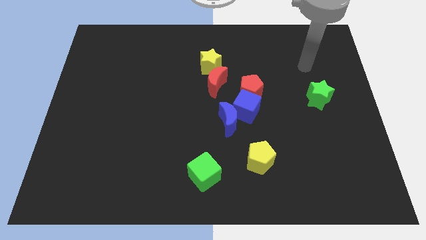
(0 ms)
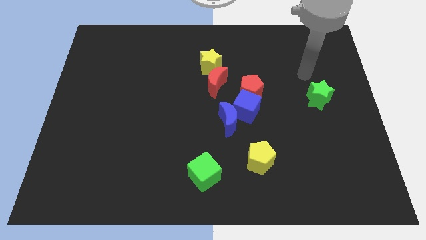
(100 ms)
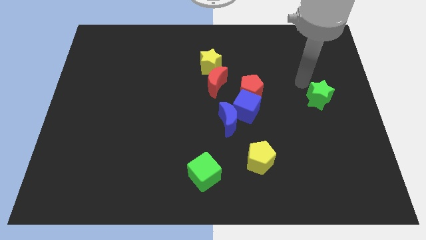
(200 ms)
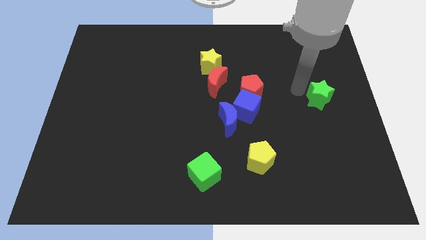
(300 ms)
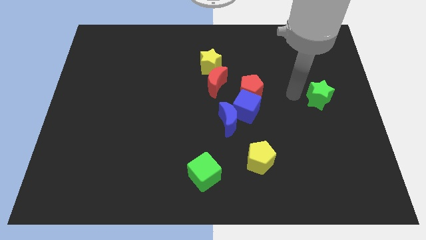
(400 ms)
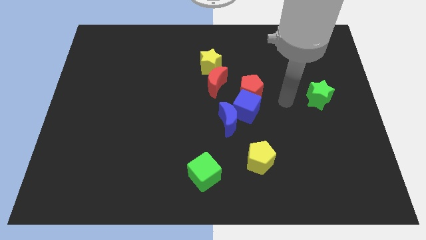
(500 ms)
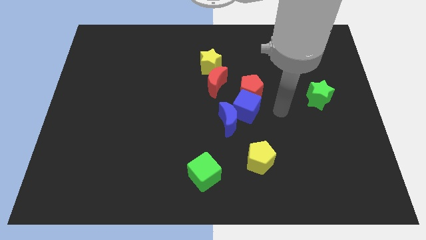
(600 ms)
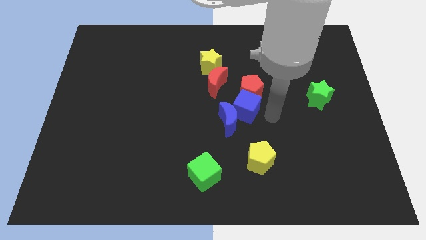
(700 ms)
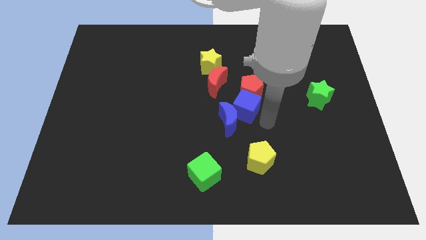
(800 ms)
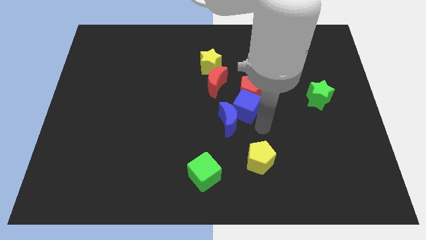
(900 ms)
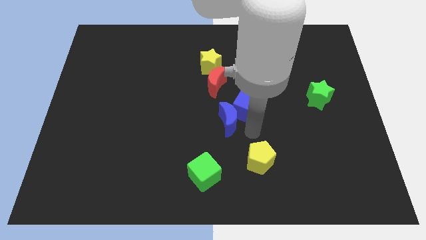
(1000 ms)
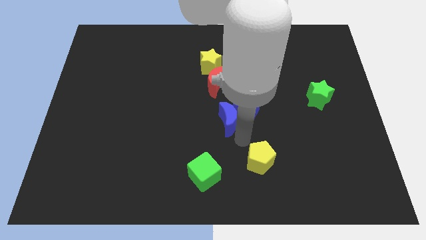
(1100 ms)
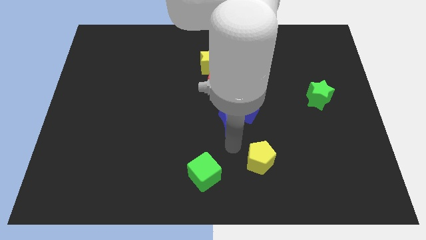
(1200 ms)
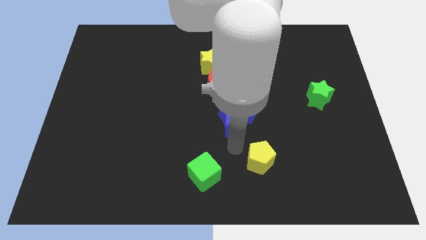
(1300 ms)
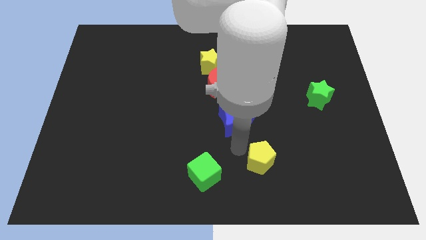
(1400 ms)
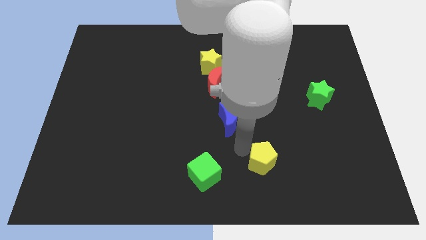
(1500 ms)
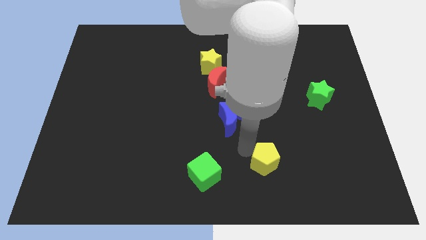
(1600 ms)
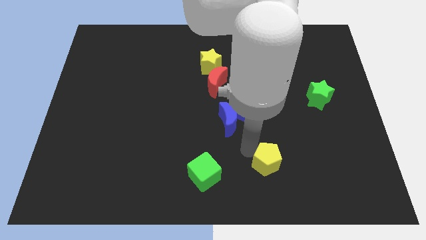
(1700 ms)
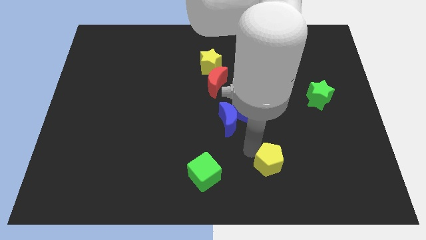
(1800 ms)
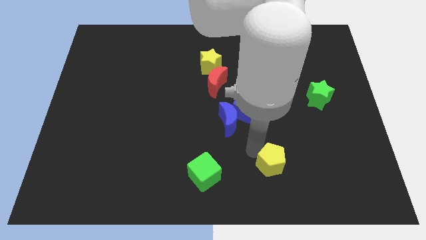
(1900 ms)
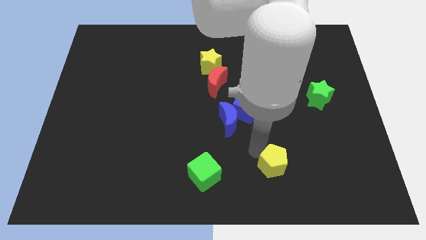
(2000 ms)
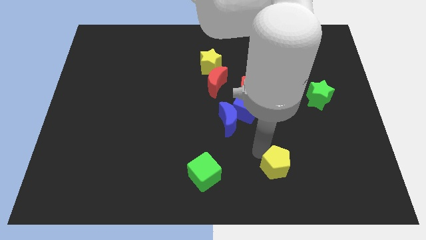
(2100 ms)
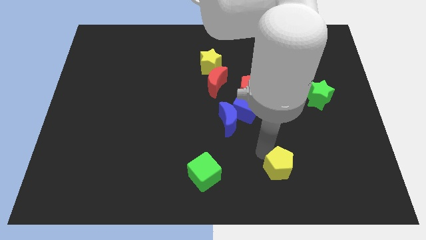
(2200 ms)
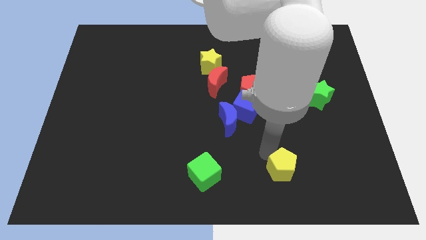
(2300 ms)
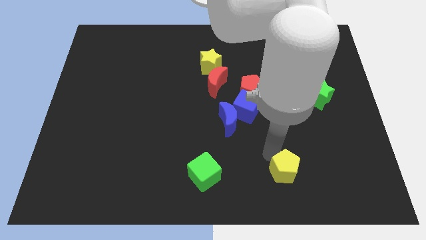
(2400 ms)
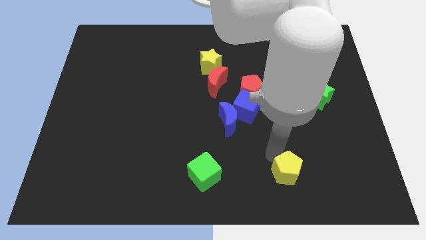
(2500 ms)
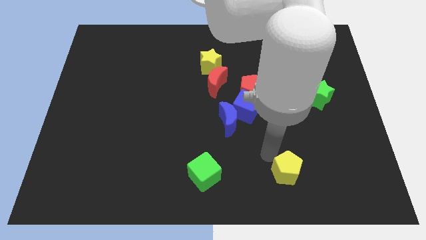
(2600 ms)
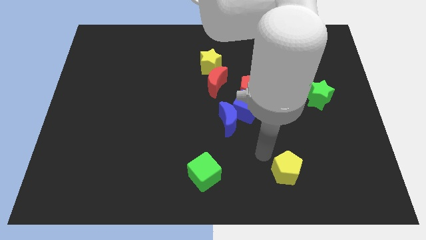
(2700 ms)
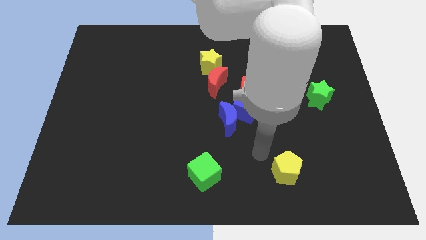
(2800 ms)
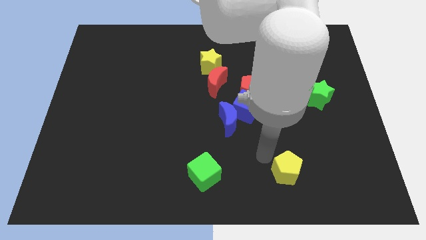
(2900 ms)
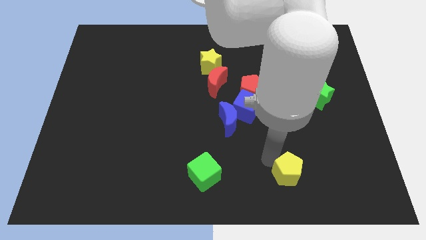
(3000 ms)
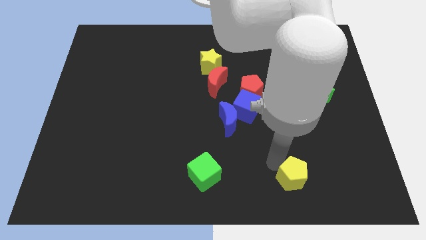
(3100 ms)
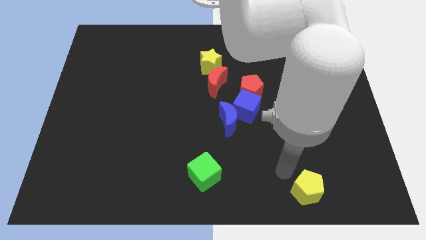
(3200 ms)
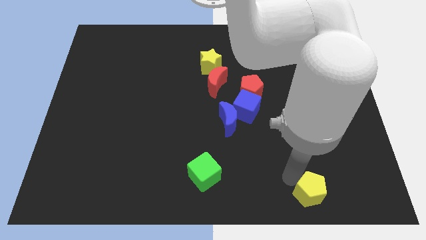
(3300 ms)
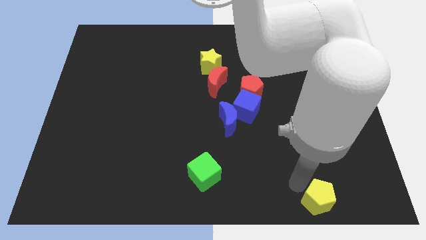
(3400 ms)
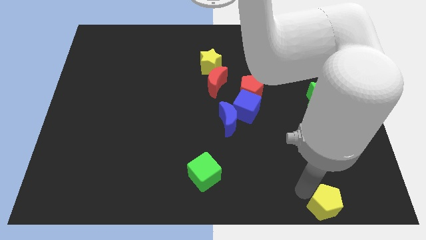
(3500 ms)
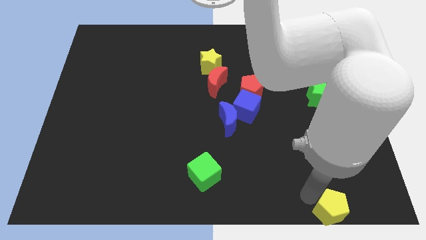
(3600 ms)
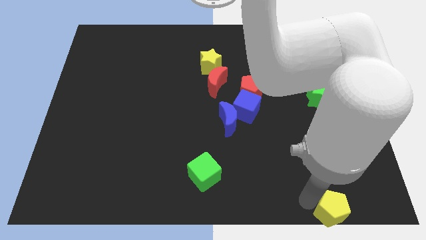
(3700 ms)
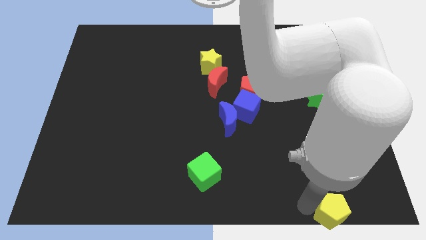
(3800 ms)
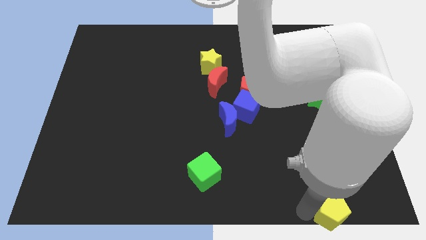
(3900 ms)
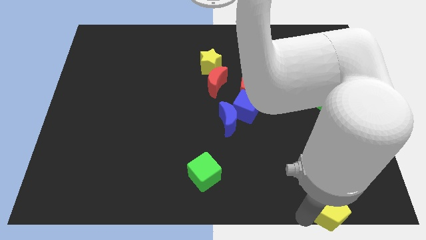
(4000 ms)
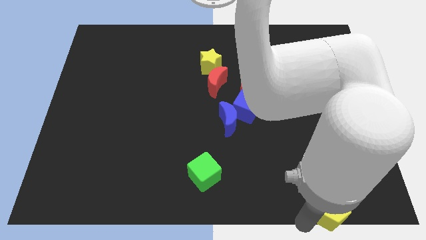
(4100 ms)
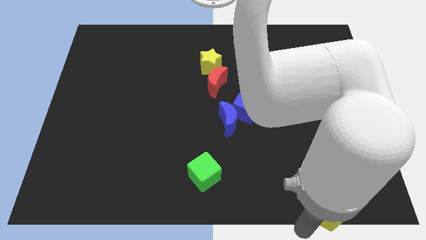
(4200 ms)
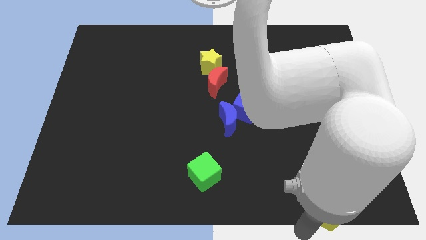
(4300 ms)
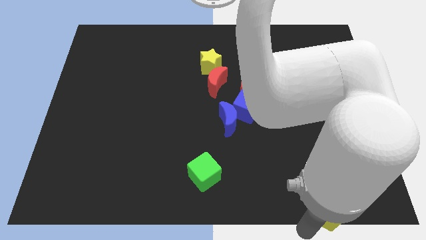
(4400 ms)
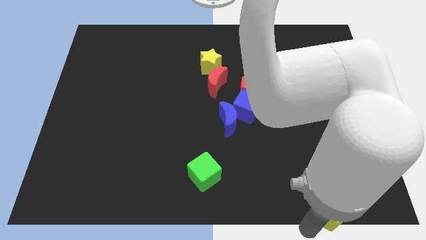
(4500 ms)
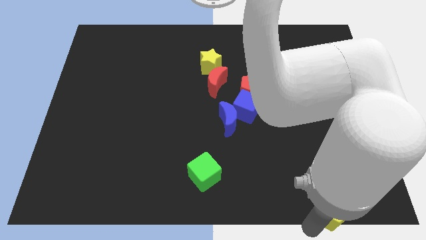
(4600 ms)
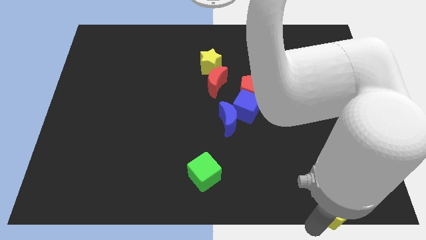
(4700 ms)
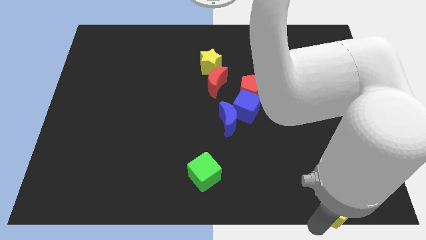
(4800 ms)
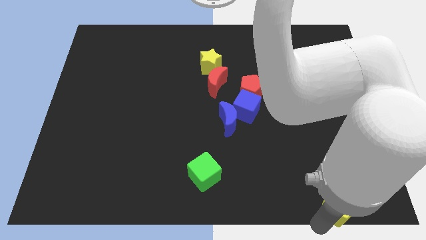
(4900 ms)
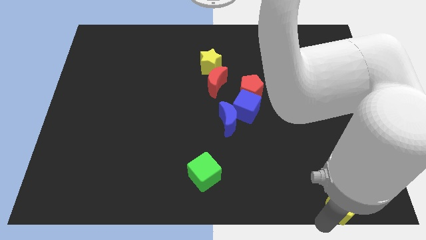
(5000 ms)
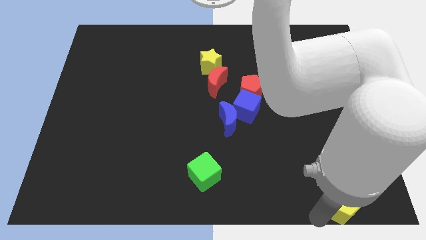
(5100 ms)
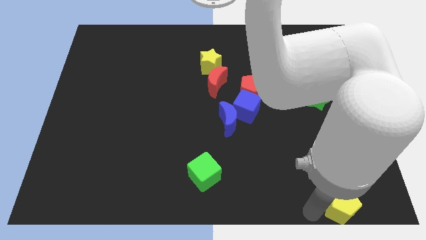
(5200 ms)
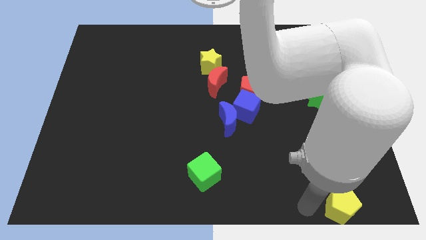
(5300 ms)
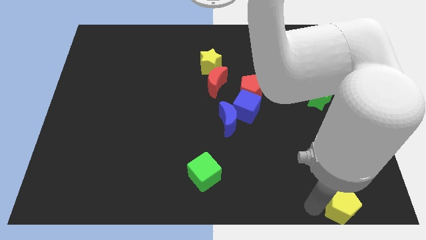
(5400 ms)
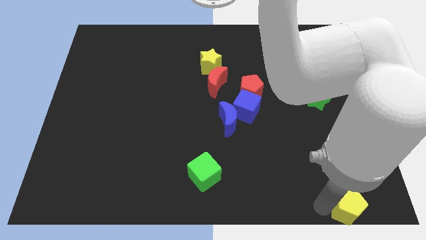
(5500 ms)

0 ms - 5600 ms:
move the yellow pentagon to the bottom right
